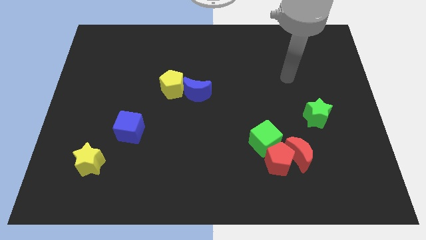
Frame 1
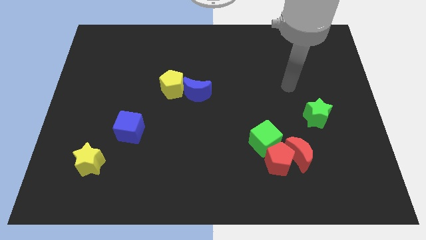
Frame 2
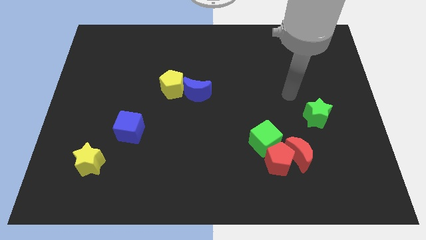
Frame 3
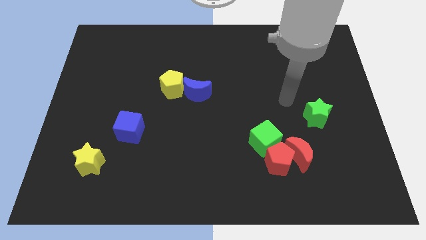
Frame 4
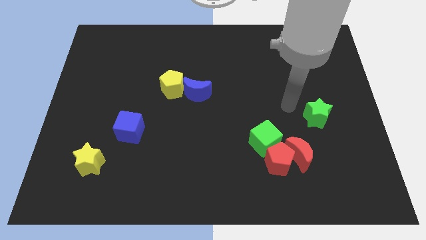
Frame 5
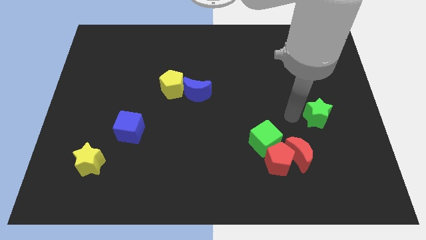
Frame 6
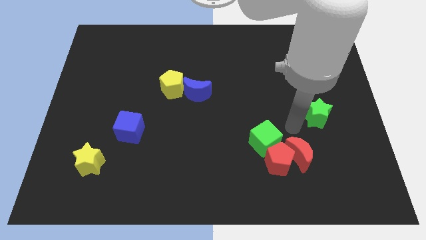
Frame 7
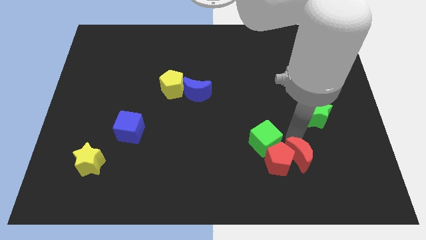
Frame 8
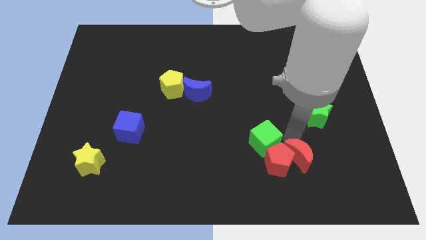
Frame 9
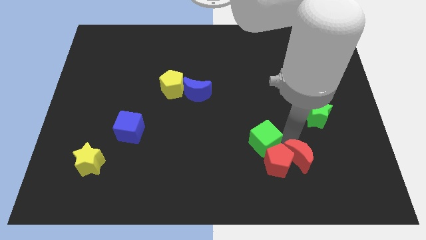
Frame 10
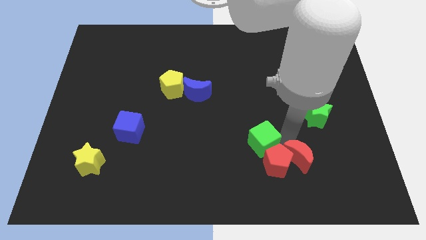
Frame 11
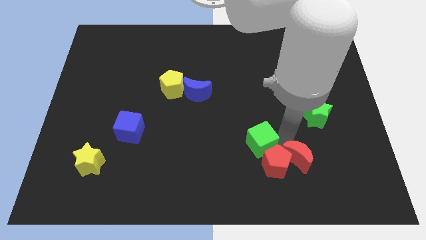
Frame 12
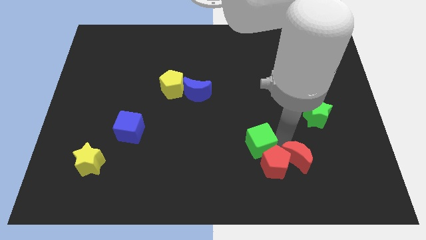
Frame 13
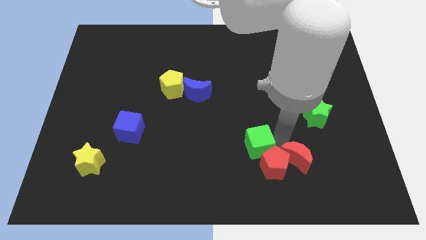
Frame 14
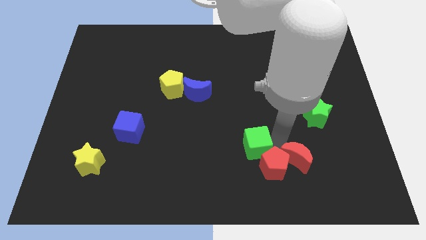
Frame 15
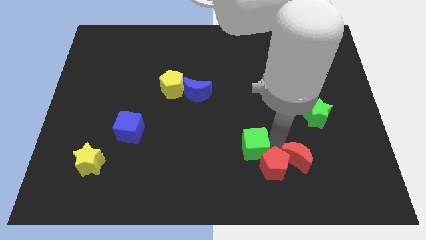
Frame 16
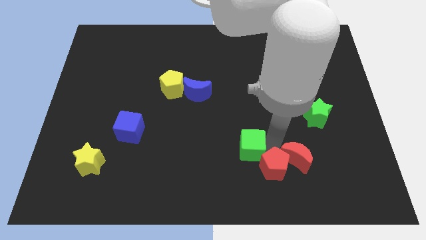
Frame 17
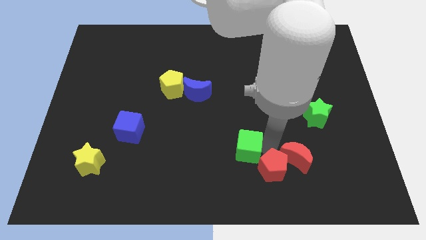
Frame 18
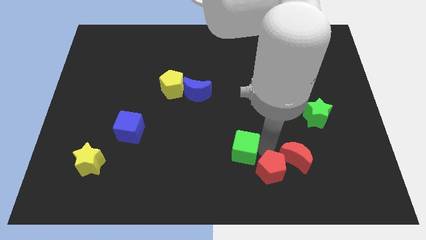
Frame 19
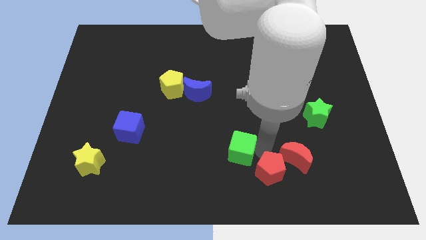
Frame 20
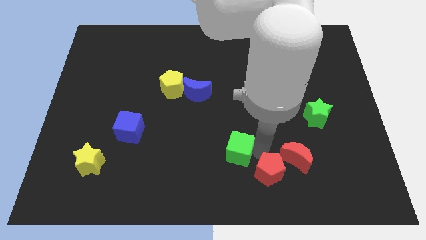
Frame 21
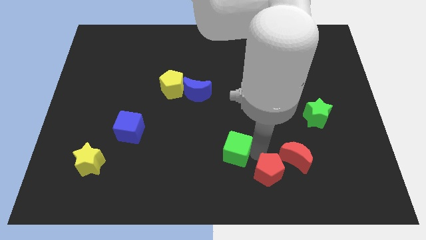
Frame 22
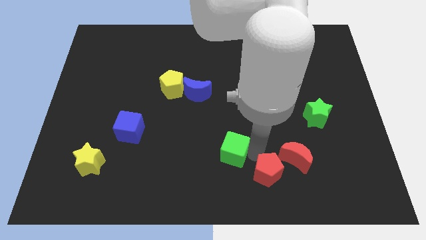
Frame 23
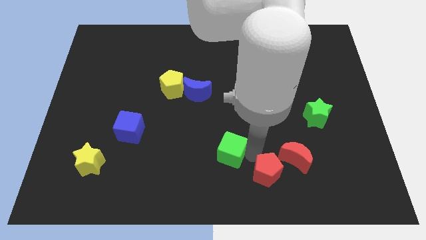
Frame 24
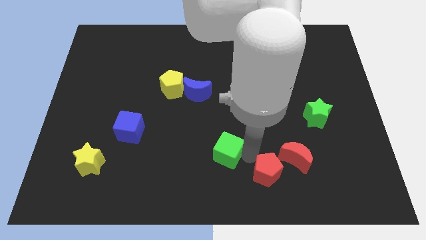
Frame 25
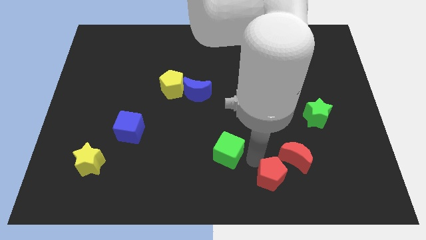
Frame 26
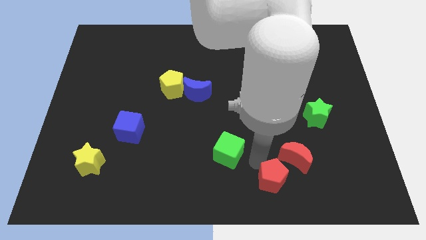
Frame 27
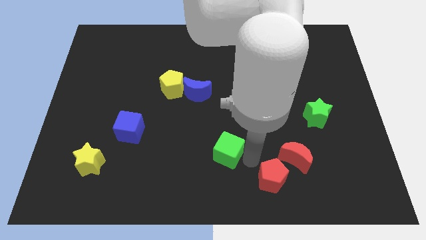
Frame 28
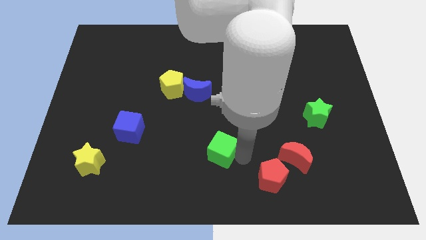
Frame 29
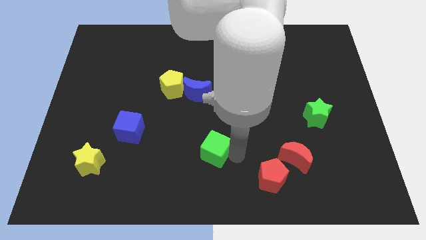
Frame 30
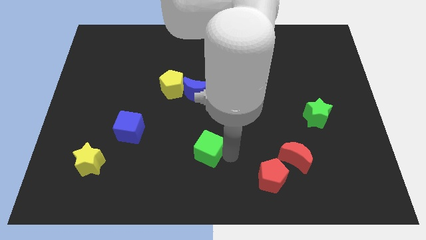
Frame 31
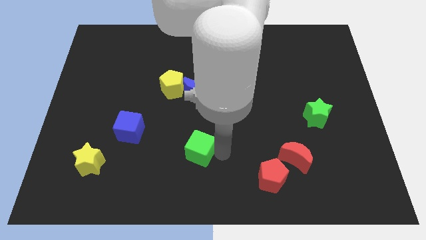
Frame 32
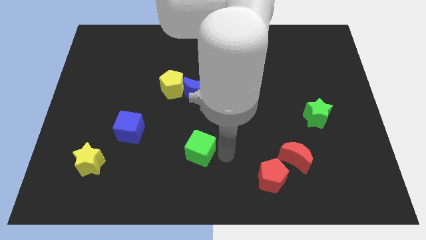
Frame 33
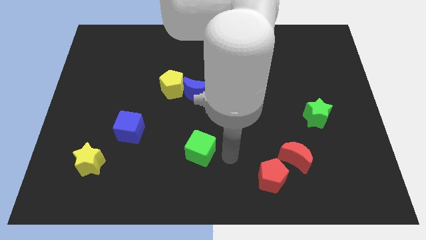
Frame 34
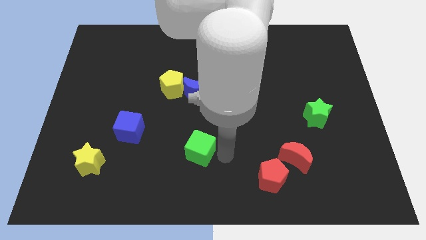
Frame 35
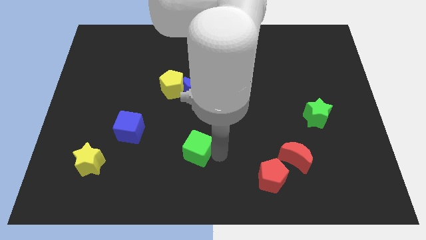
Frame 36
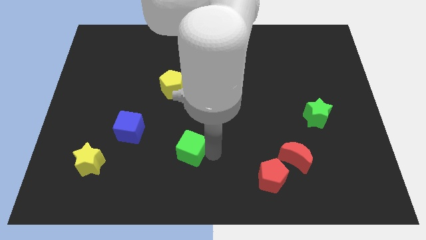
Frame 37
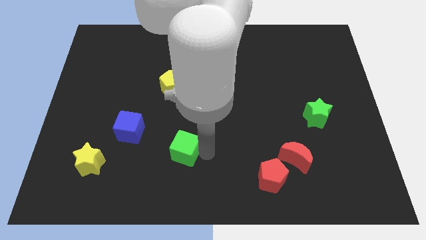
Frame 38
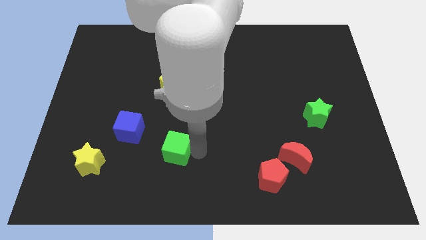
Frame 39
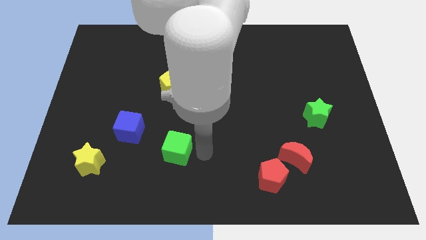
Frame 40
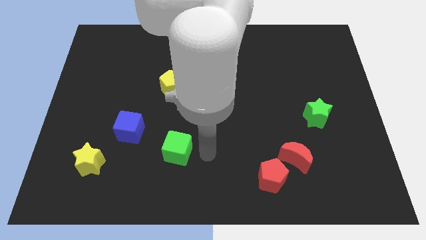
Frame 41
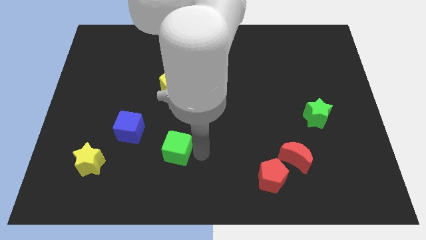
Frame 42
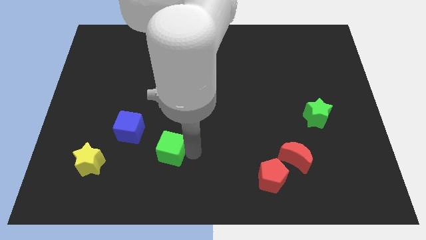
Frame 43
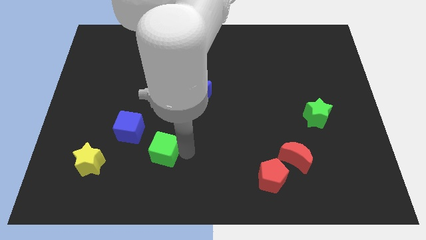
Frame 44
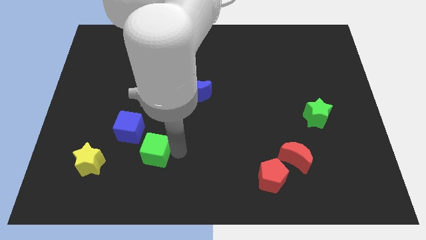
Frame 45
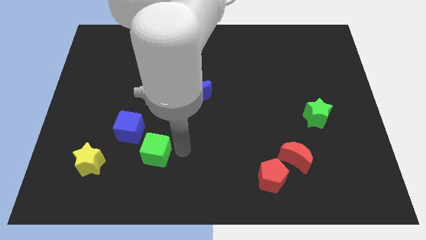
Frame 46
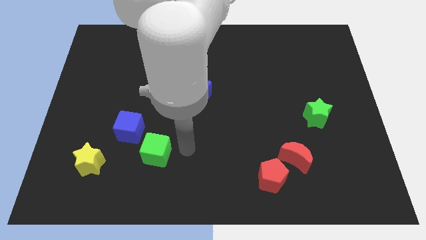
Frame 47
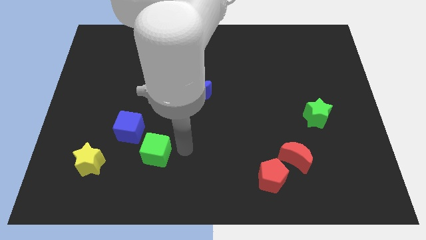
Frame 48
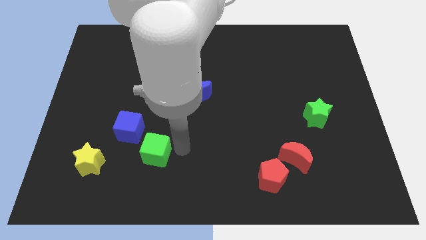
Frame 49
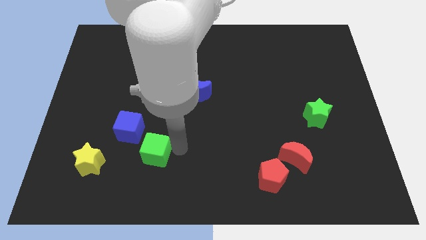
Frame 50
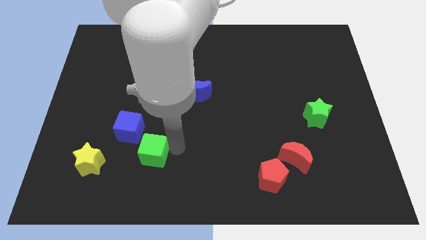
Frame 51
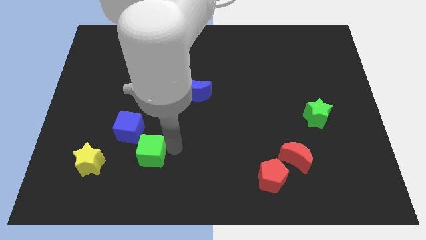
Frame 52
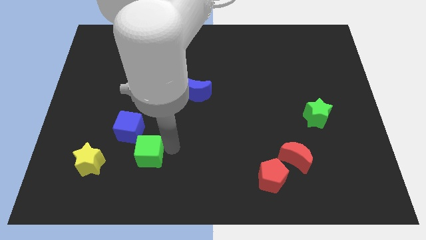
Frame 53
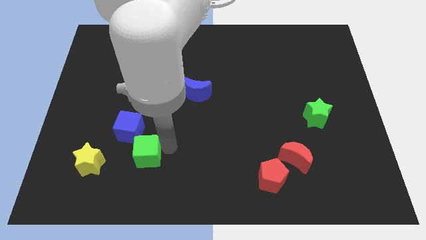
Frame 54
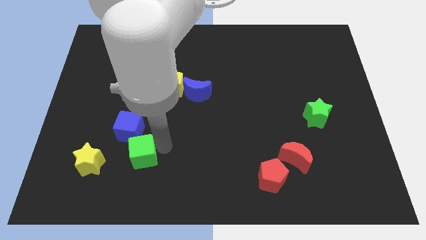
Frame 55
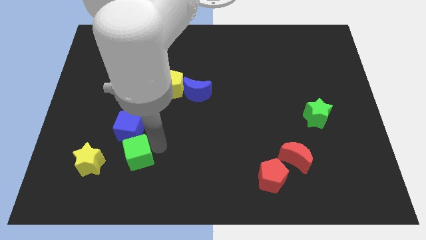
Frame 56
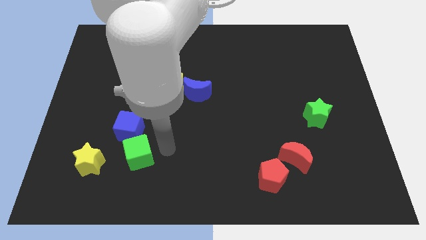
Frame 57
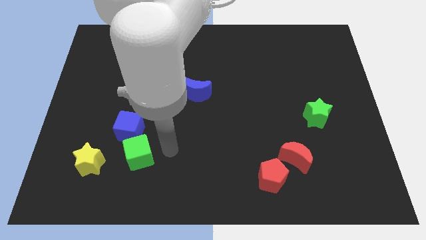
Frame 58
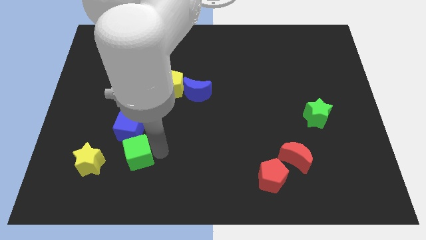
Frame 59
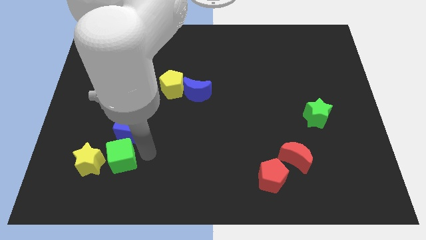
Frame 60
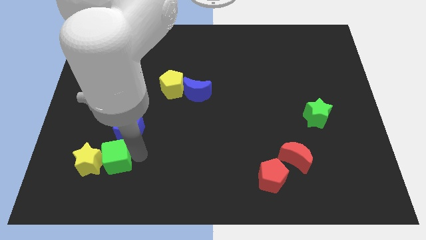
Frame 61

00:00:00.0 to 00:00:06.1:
move the green cube towards the yellow star

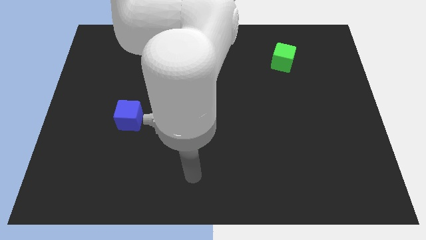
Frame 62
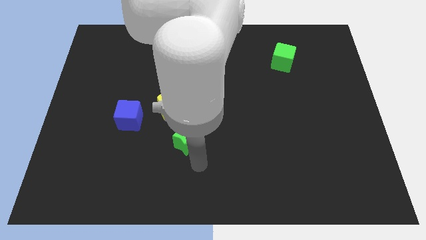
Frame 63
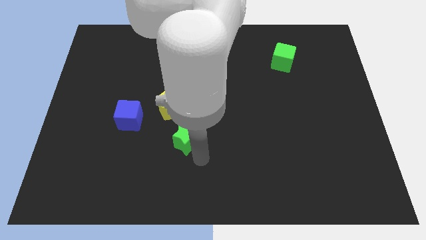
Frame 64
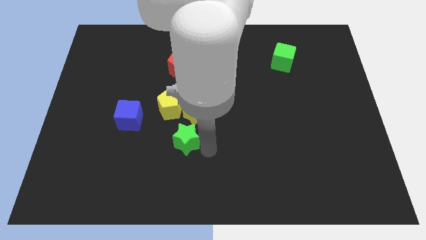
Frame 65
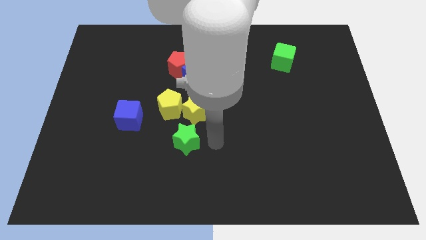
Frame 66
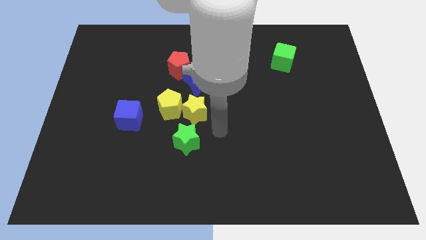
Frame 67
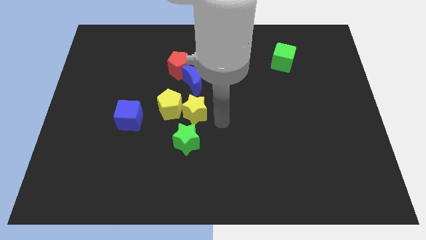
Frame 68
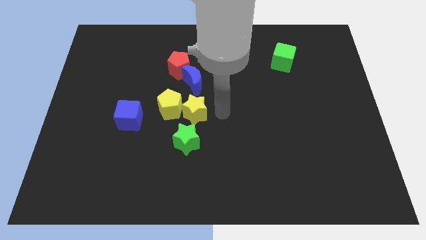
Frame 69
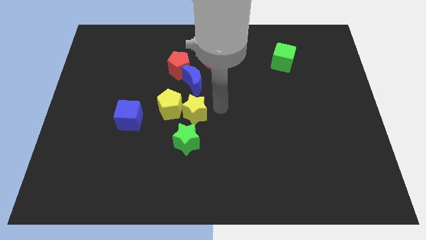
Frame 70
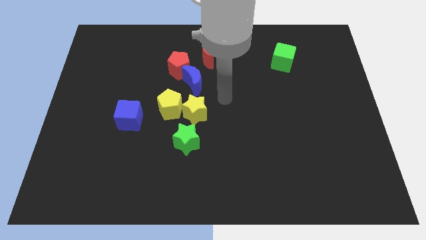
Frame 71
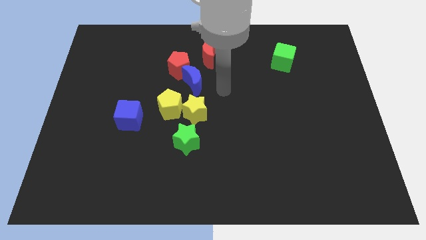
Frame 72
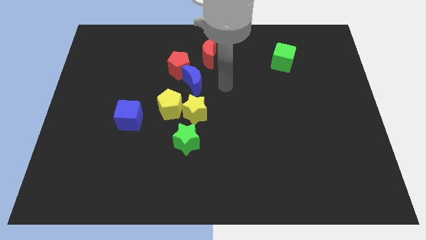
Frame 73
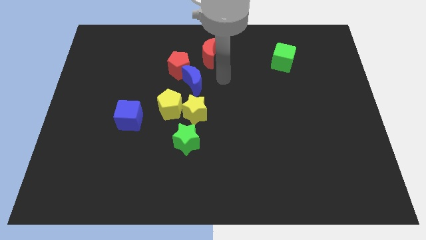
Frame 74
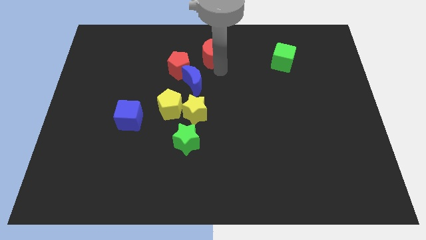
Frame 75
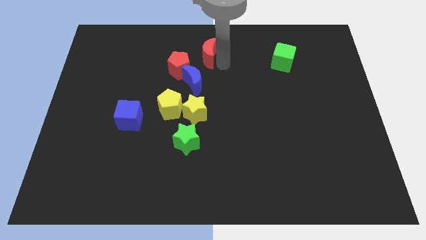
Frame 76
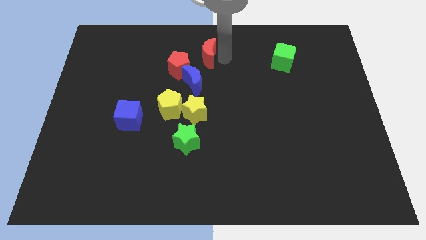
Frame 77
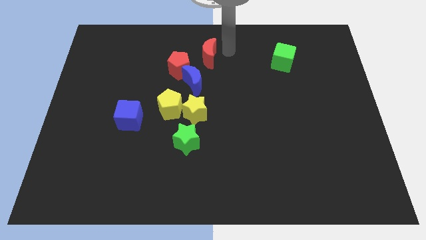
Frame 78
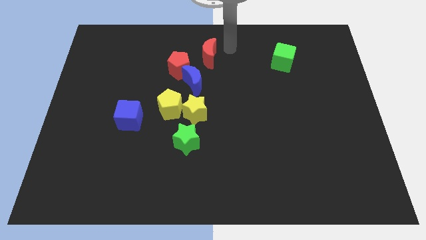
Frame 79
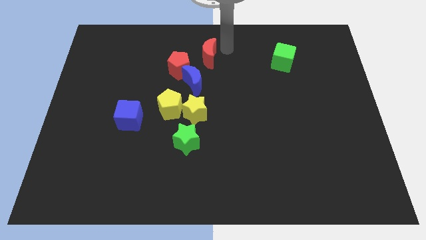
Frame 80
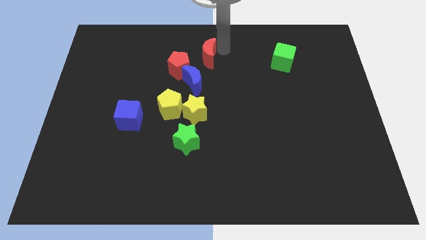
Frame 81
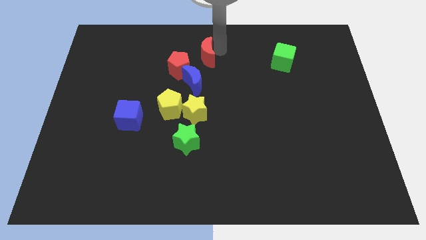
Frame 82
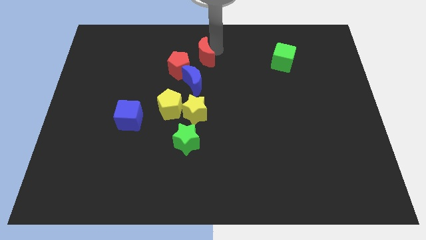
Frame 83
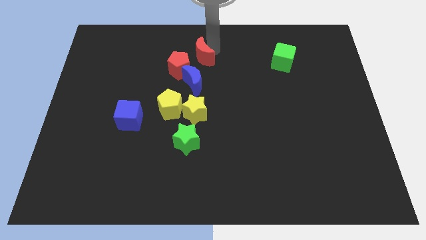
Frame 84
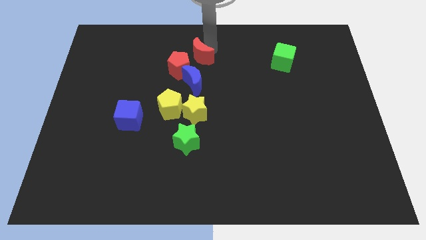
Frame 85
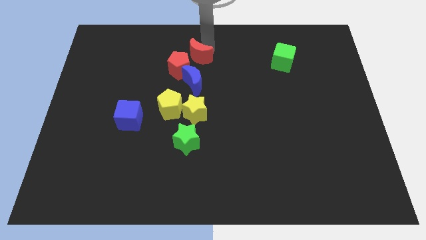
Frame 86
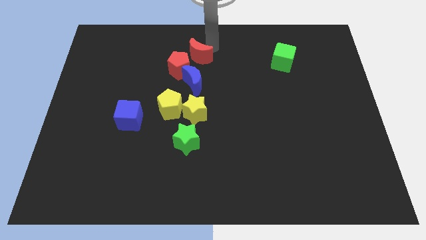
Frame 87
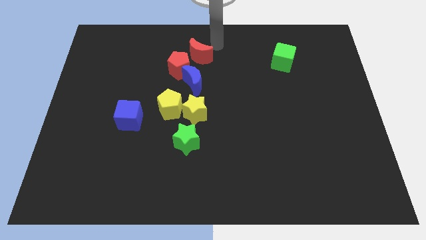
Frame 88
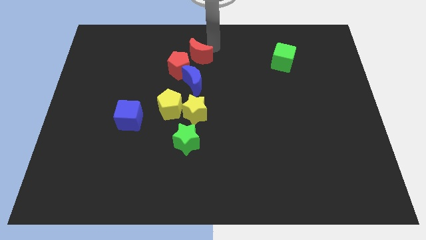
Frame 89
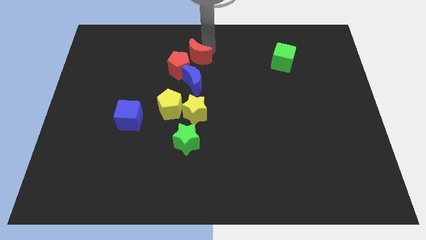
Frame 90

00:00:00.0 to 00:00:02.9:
put the red moon to the red pentagon
